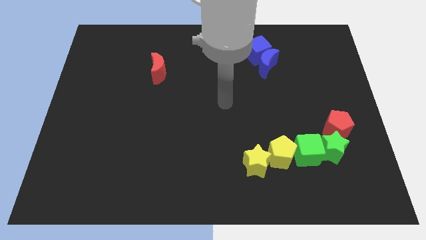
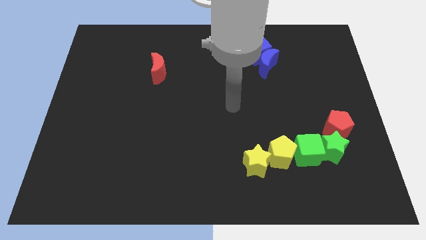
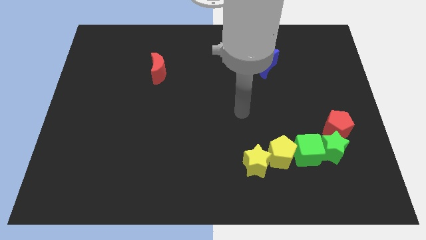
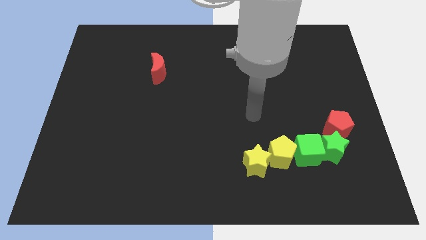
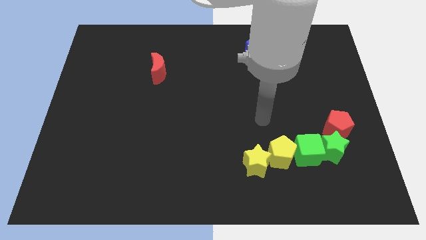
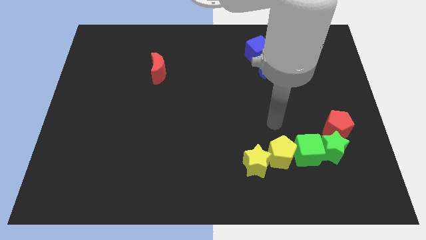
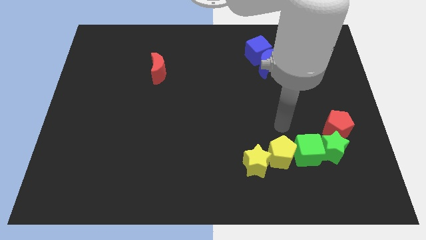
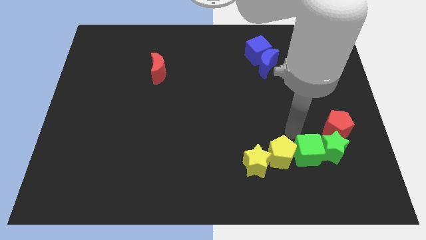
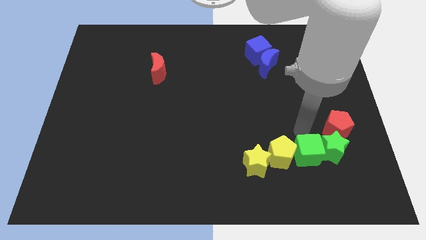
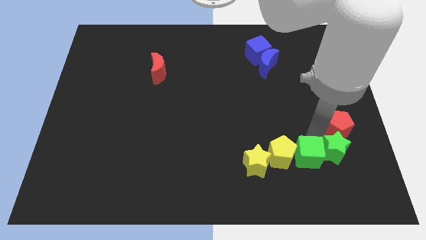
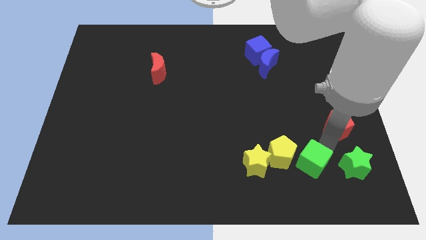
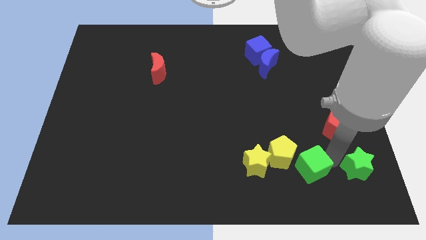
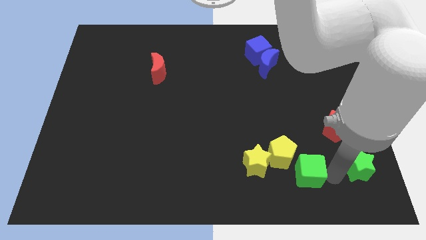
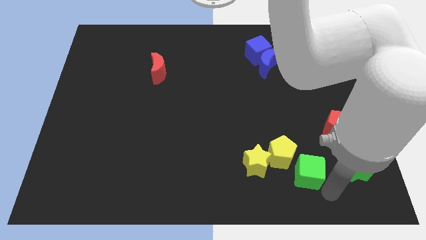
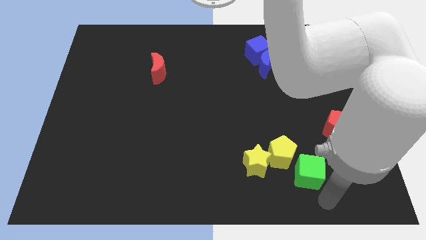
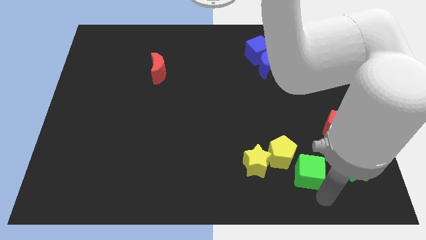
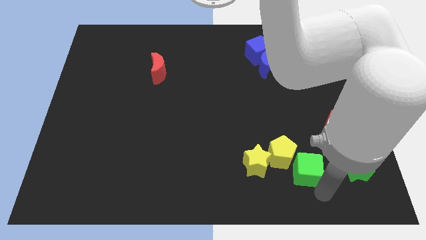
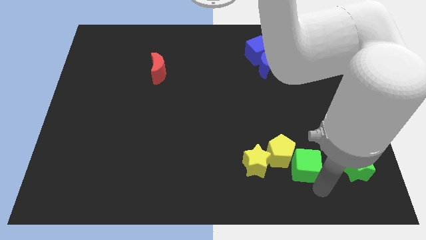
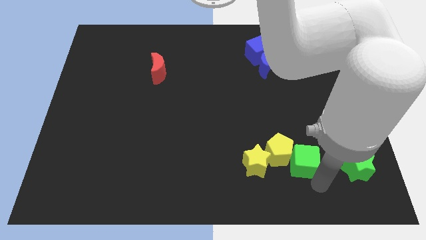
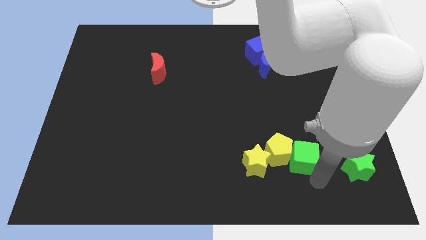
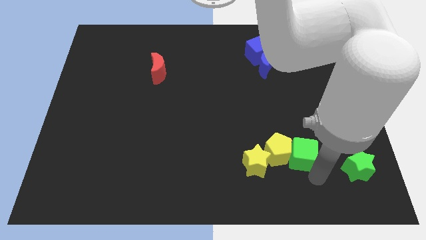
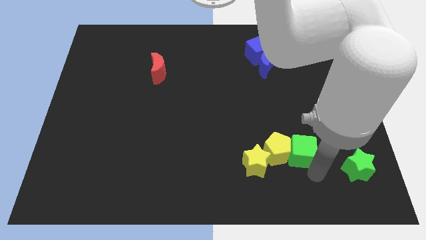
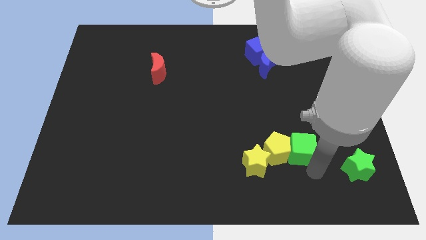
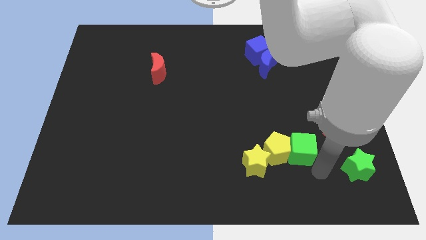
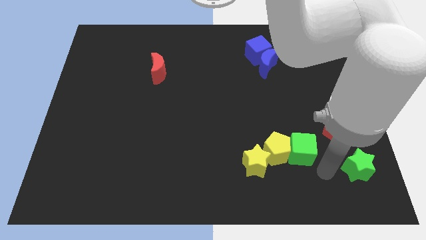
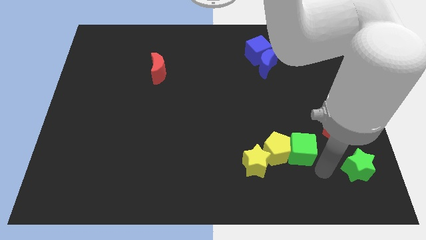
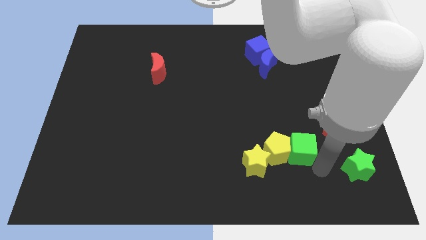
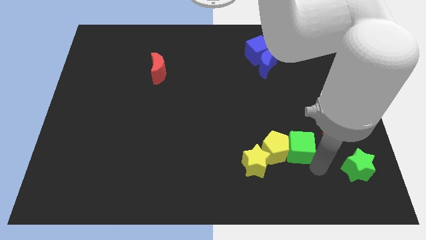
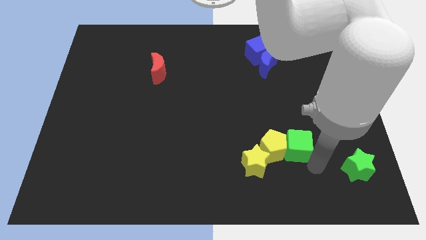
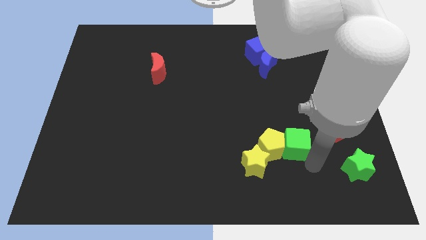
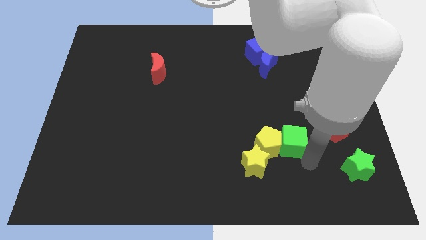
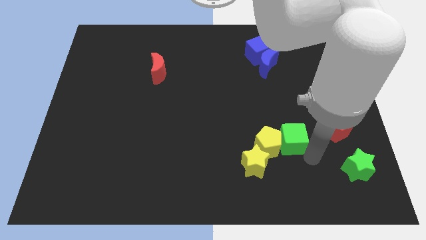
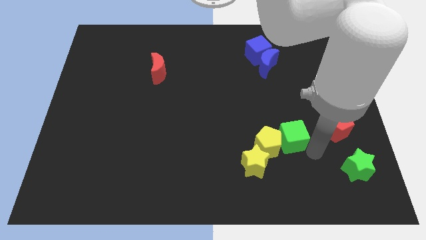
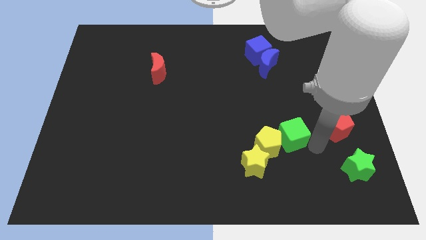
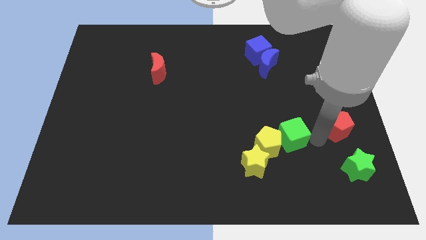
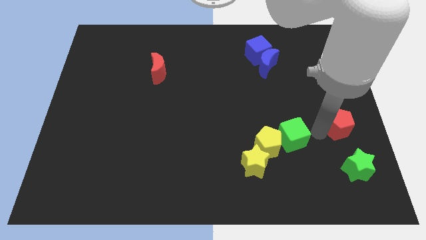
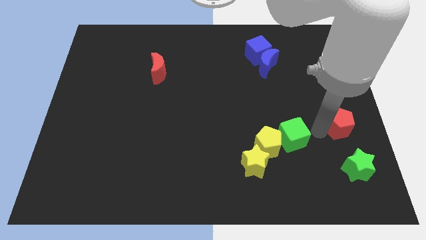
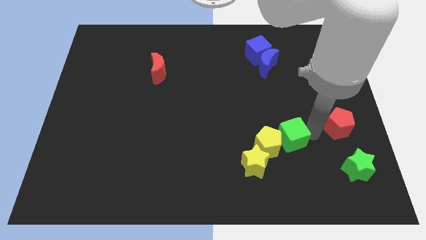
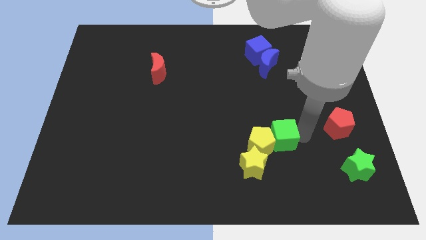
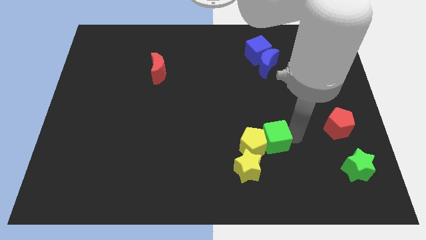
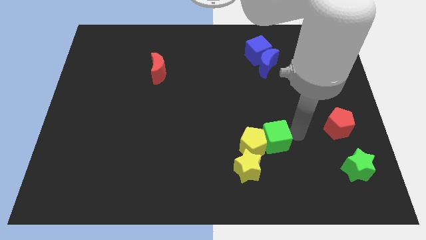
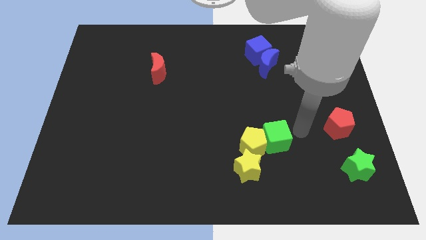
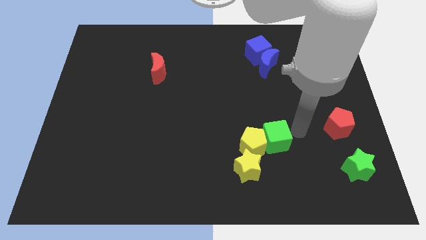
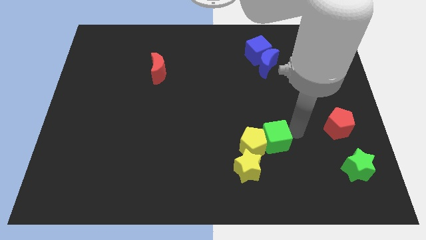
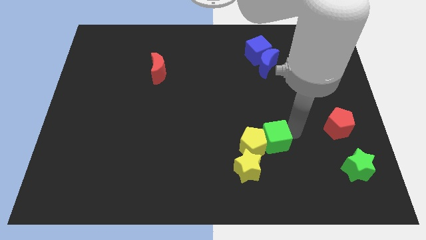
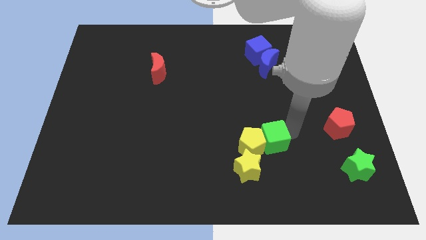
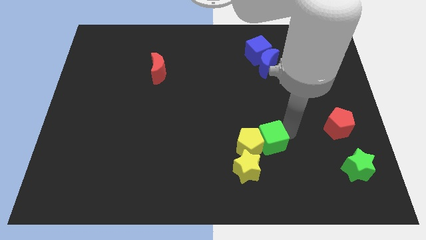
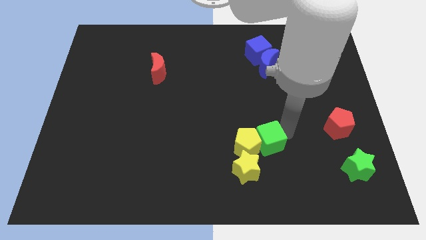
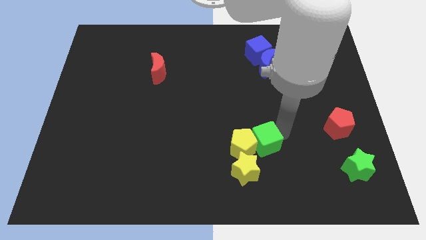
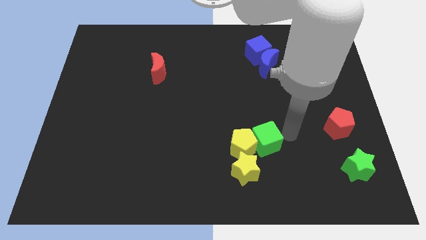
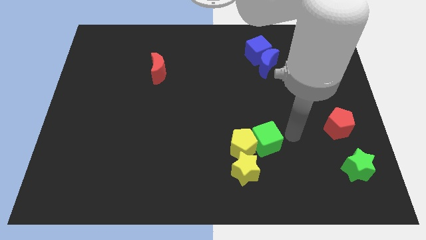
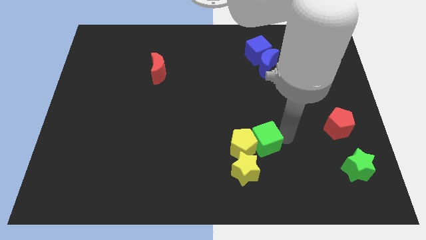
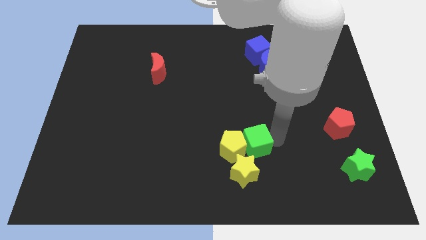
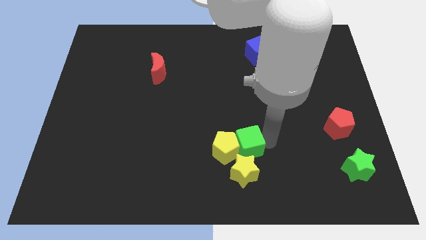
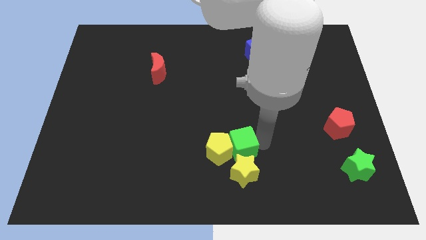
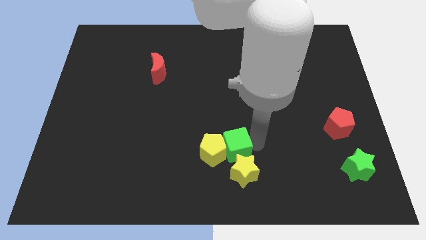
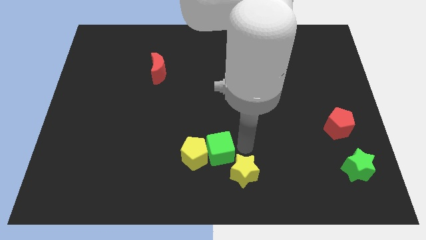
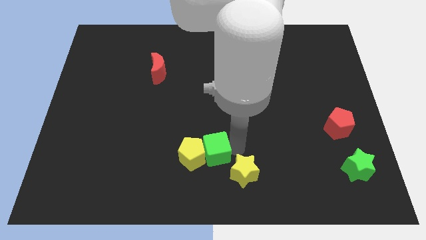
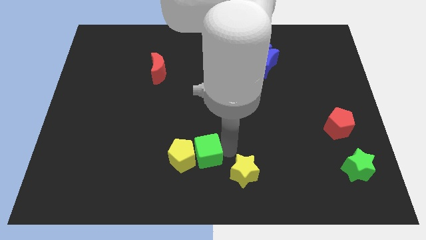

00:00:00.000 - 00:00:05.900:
move the green cube left

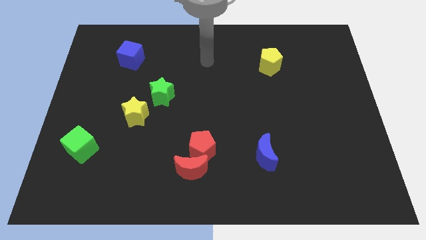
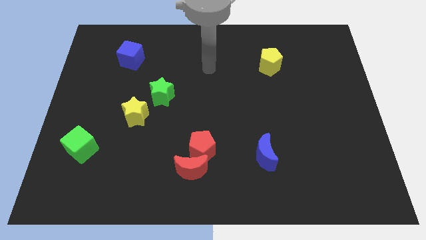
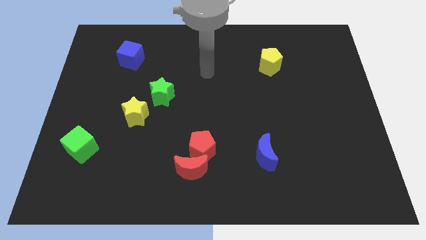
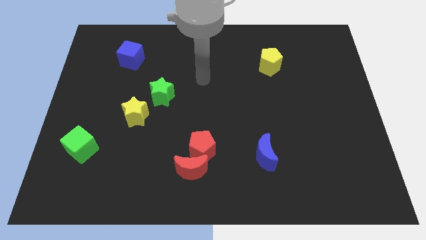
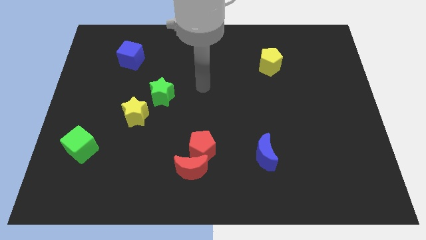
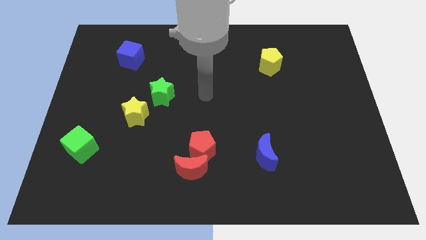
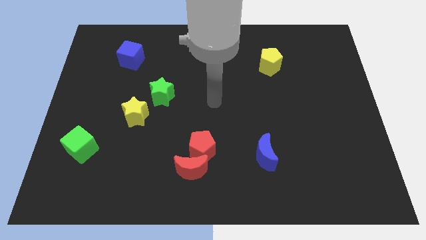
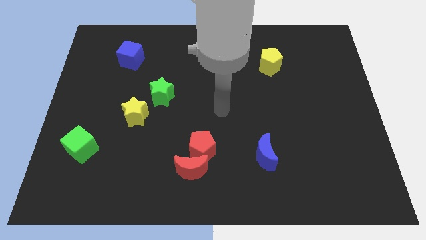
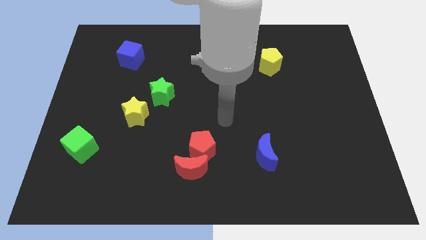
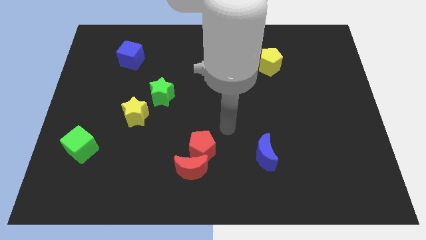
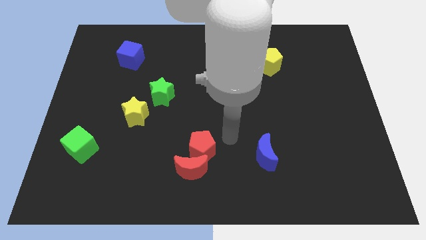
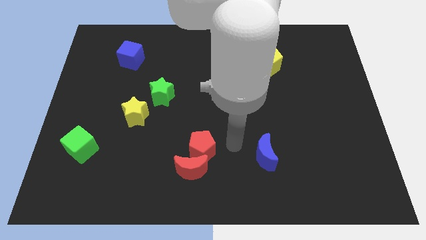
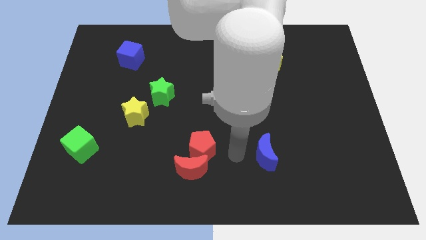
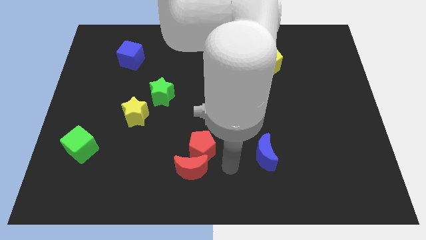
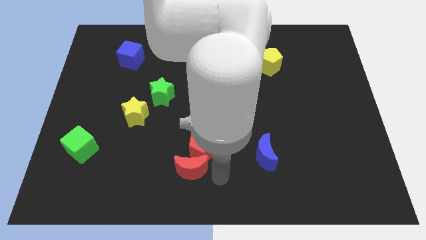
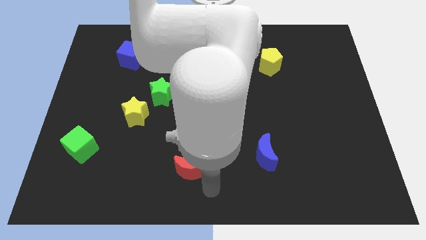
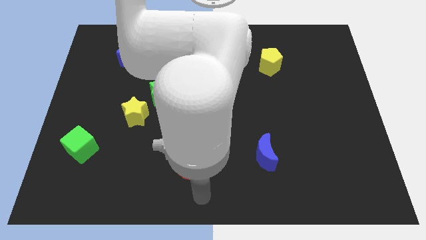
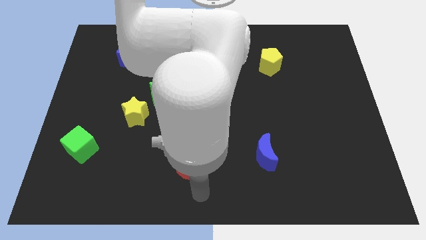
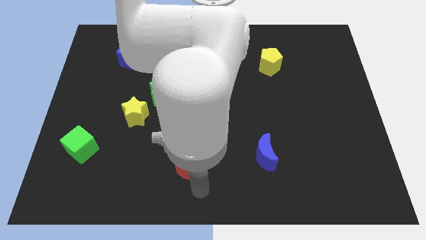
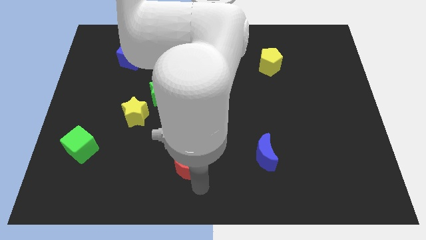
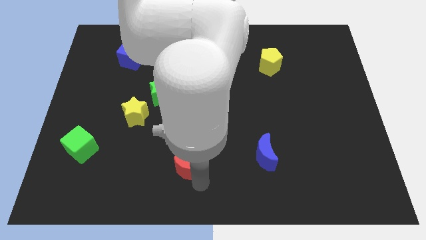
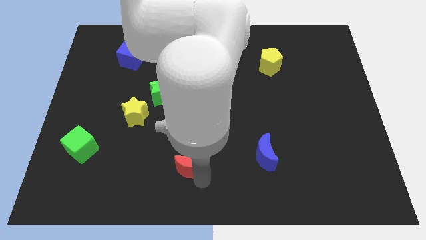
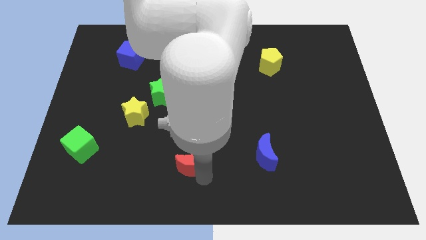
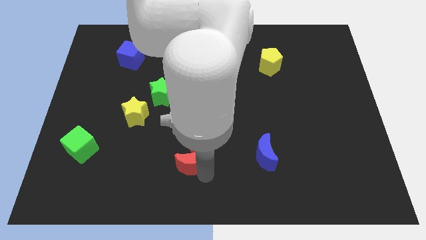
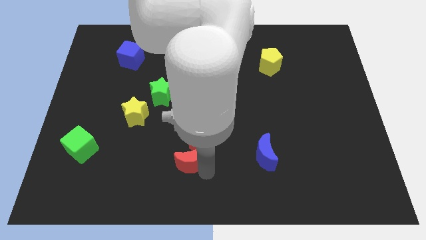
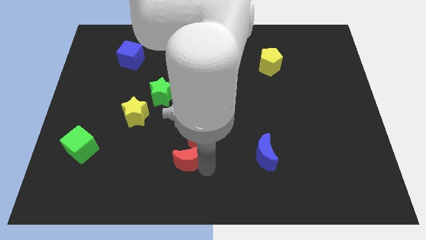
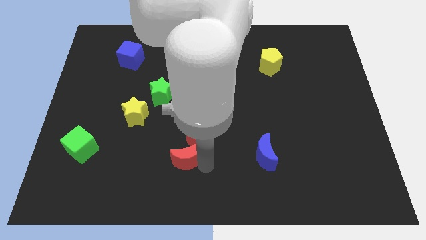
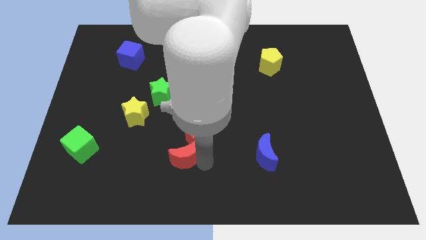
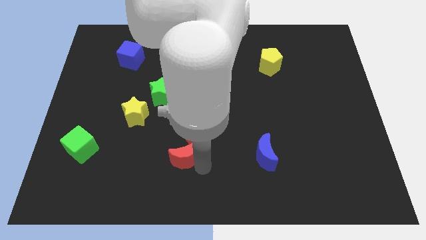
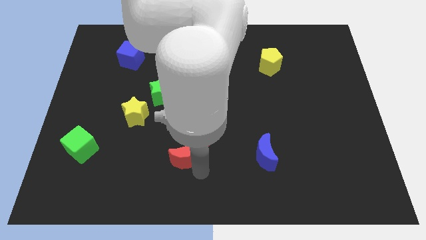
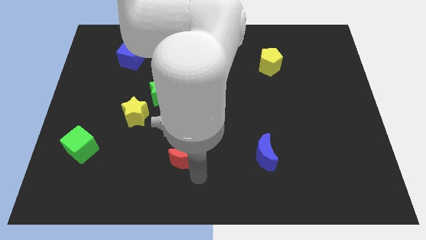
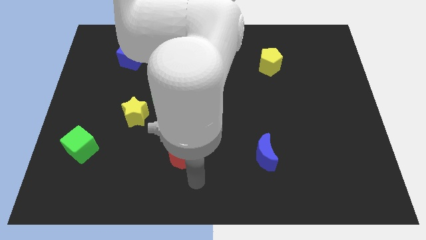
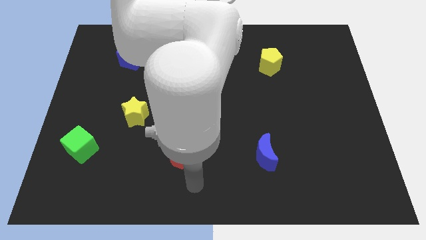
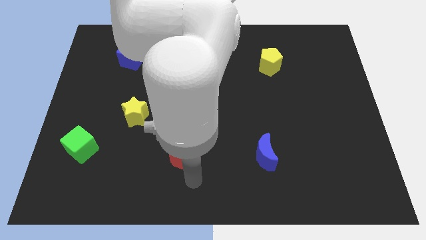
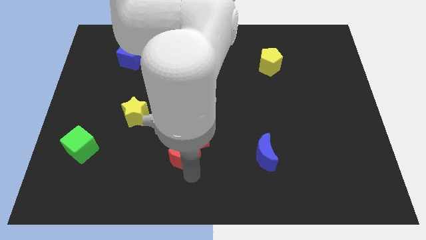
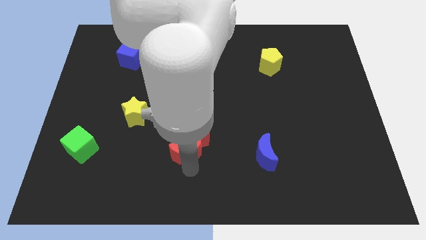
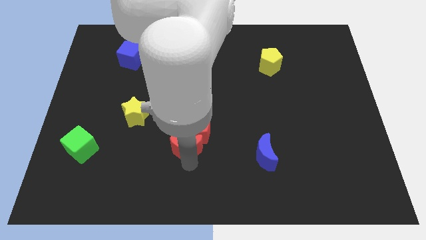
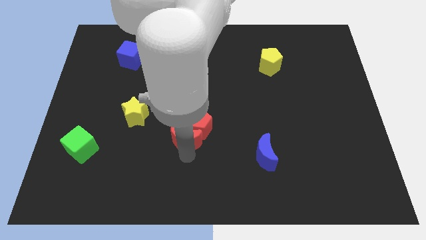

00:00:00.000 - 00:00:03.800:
slide the red moon up slightly
